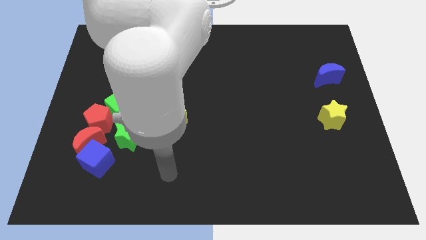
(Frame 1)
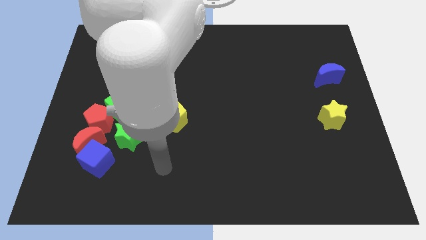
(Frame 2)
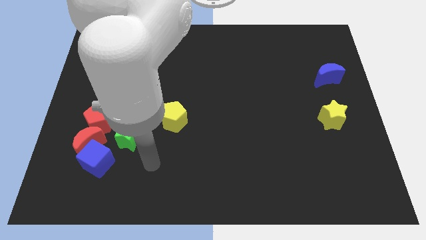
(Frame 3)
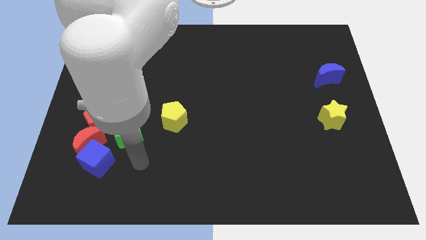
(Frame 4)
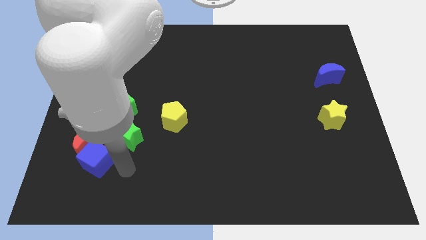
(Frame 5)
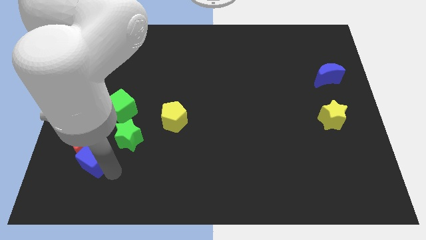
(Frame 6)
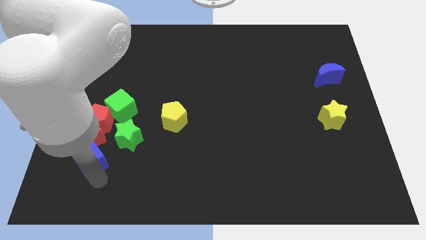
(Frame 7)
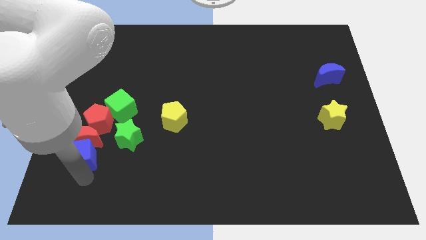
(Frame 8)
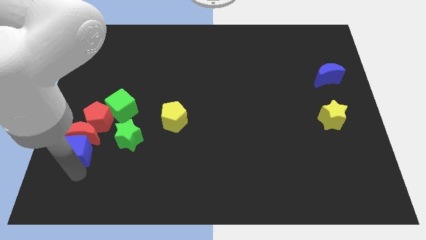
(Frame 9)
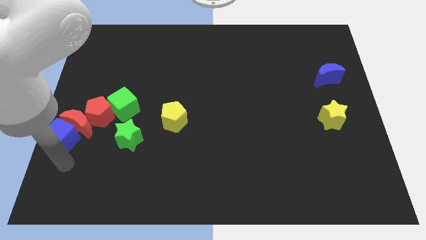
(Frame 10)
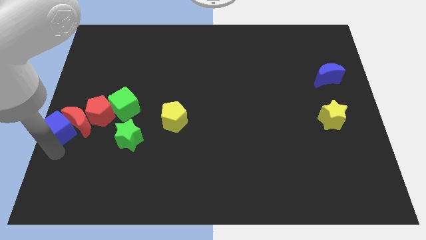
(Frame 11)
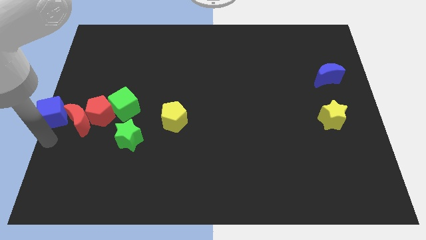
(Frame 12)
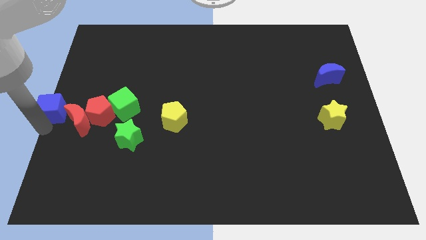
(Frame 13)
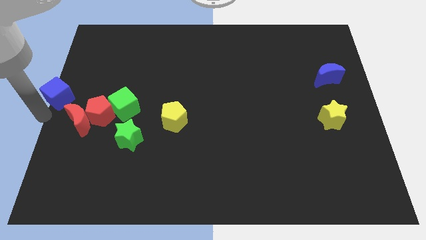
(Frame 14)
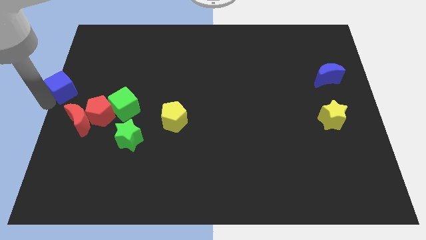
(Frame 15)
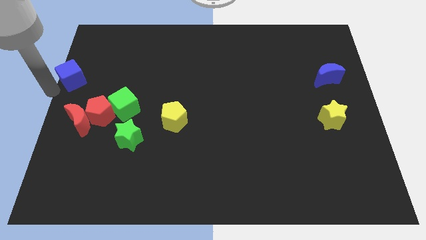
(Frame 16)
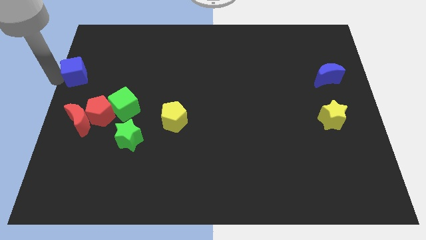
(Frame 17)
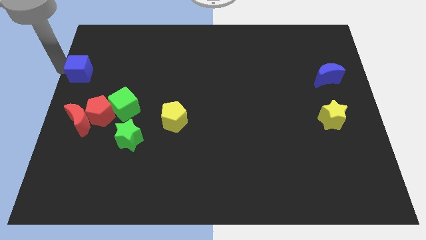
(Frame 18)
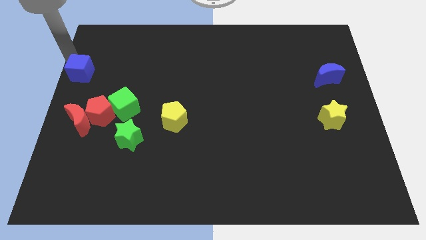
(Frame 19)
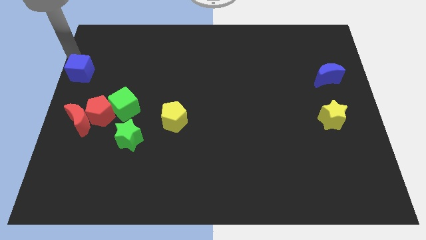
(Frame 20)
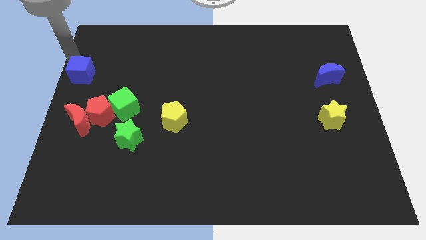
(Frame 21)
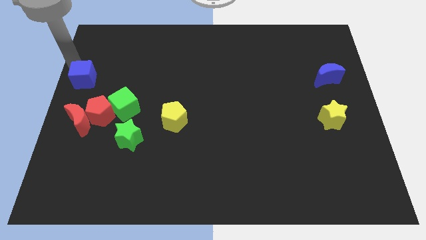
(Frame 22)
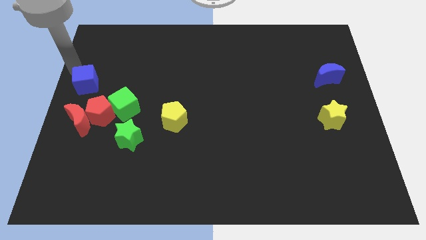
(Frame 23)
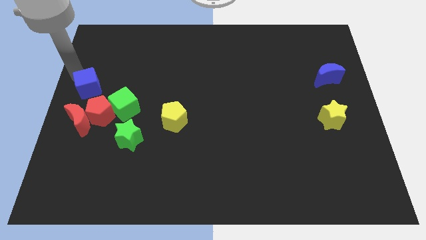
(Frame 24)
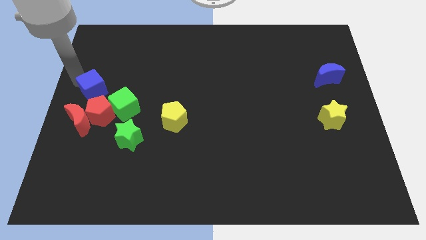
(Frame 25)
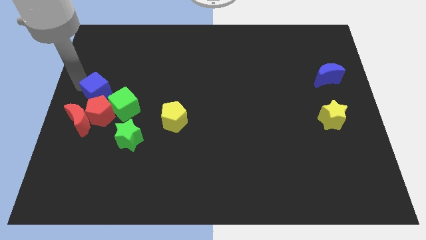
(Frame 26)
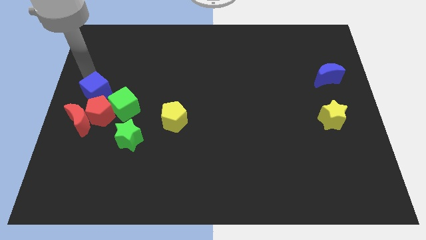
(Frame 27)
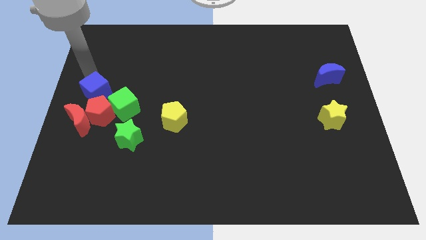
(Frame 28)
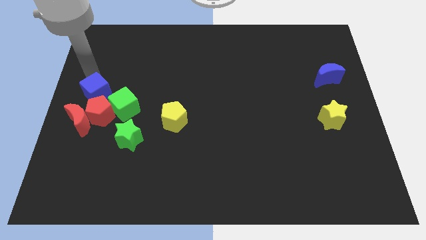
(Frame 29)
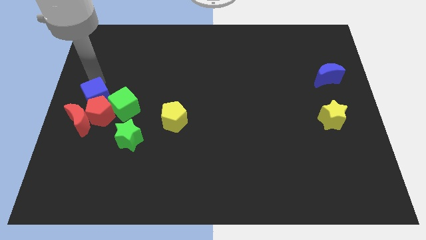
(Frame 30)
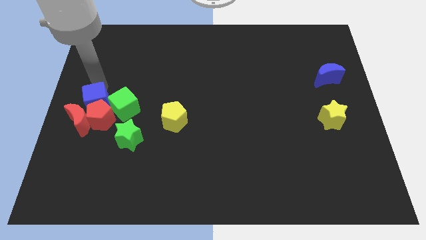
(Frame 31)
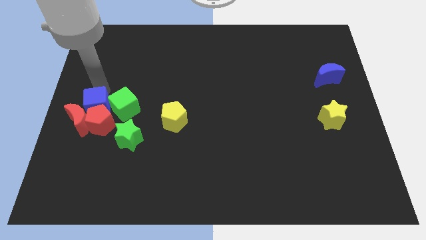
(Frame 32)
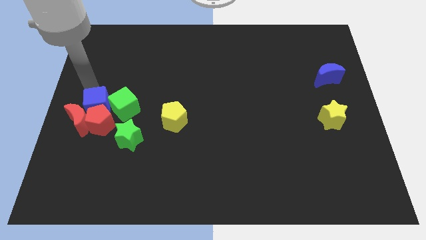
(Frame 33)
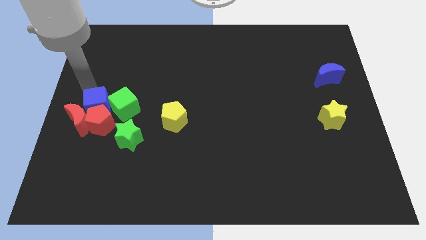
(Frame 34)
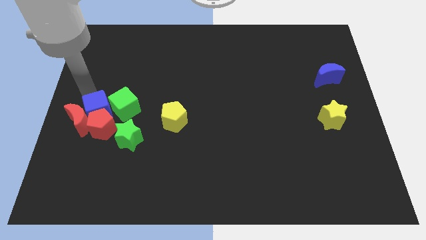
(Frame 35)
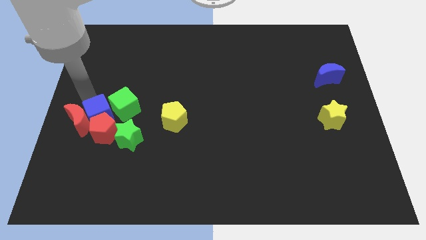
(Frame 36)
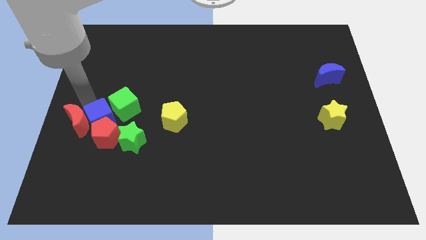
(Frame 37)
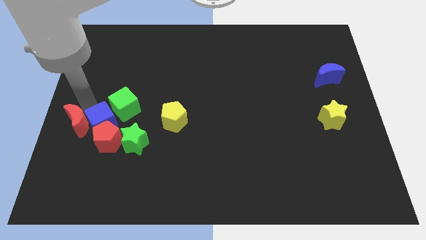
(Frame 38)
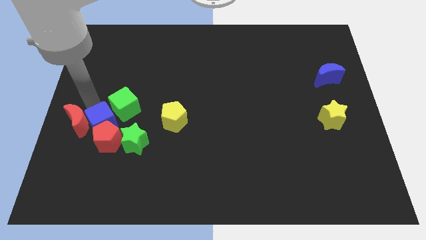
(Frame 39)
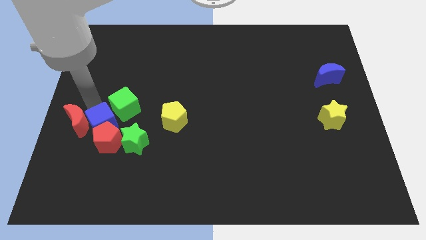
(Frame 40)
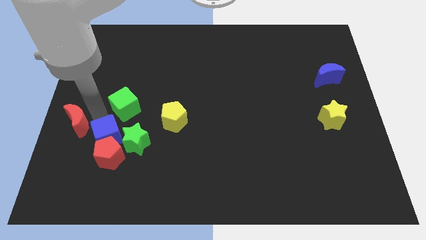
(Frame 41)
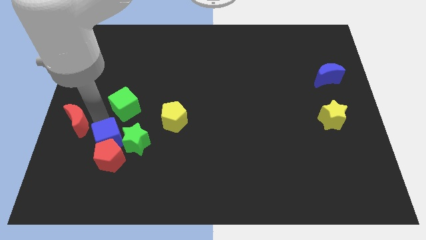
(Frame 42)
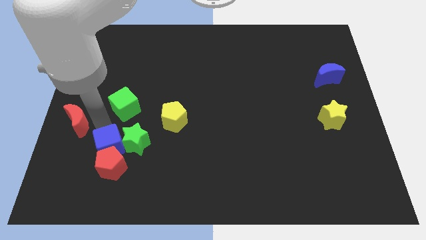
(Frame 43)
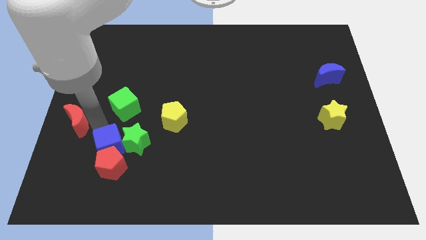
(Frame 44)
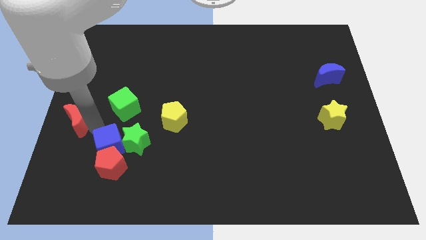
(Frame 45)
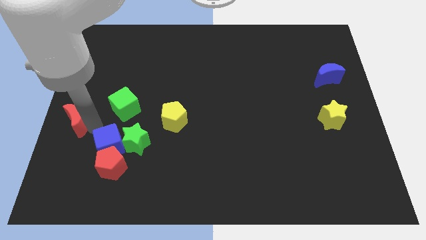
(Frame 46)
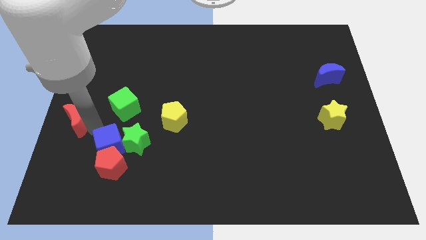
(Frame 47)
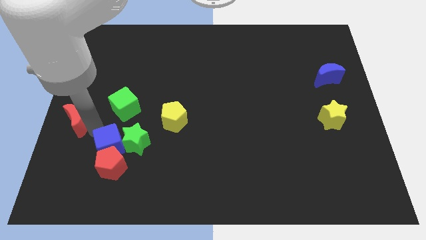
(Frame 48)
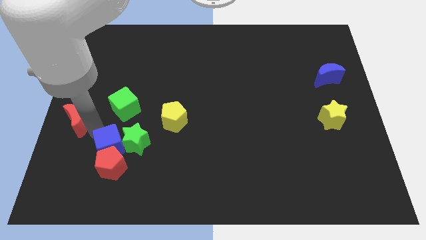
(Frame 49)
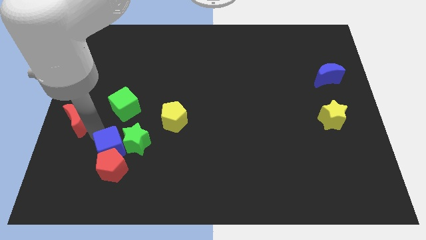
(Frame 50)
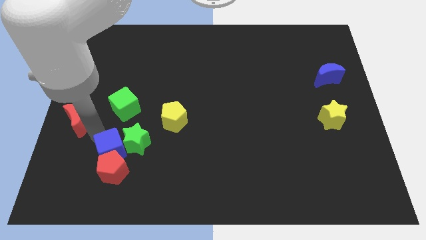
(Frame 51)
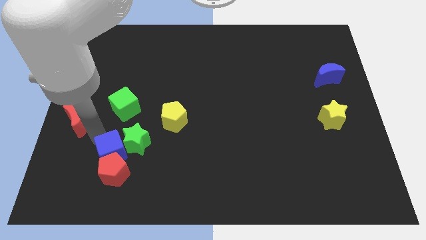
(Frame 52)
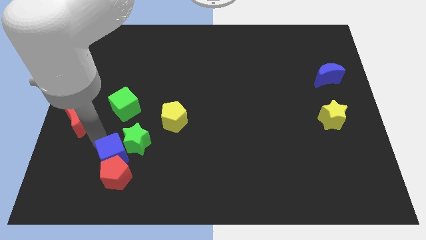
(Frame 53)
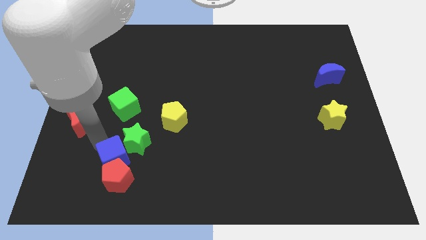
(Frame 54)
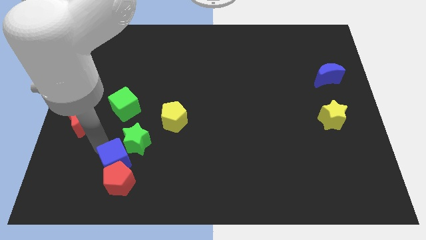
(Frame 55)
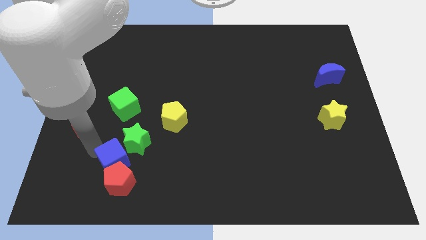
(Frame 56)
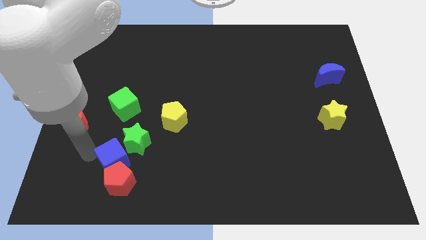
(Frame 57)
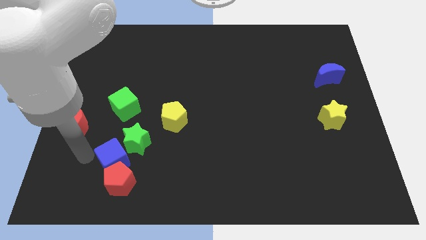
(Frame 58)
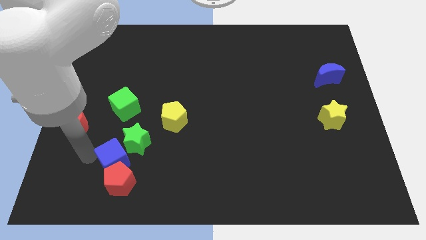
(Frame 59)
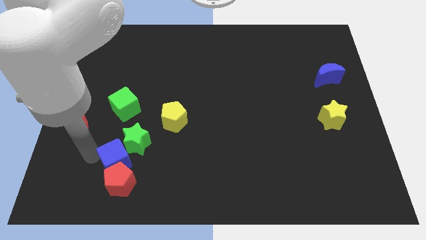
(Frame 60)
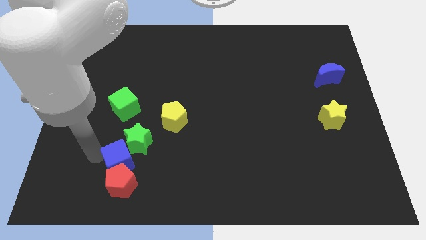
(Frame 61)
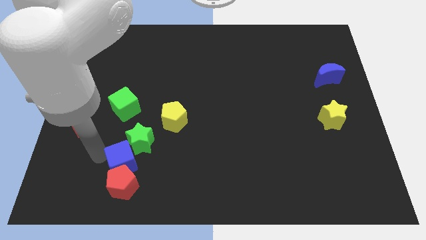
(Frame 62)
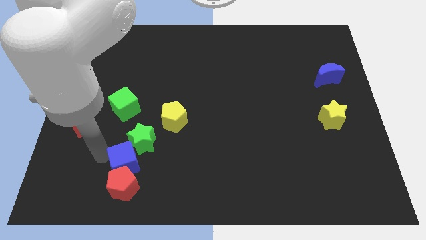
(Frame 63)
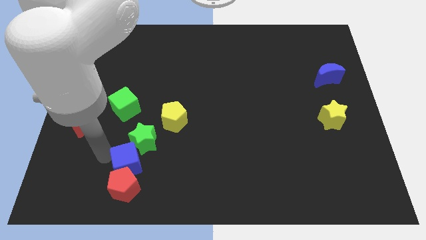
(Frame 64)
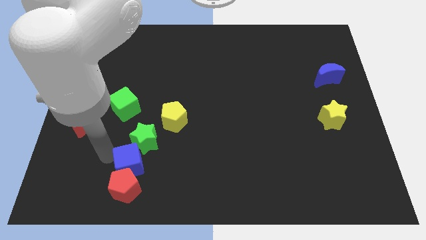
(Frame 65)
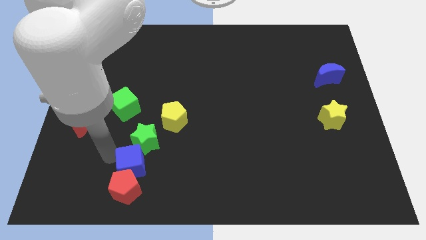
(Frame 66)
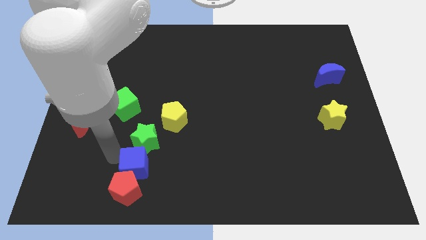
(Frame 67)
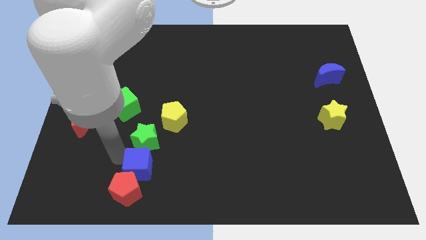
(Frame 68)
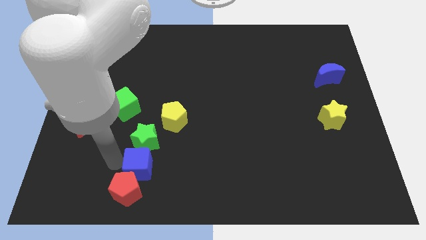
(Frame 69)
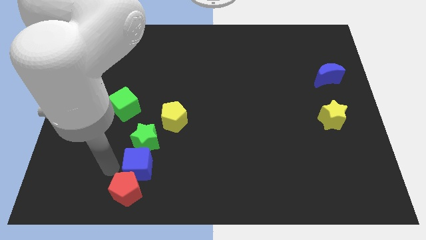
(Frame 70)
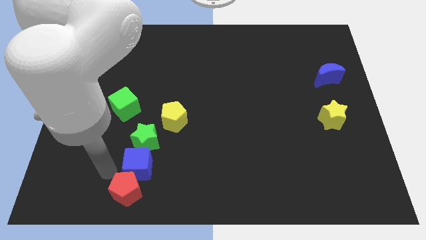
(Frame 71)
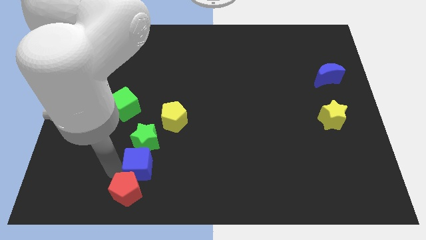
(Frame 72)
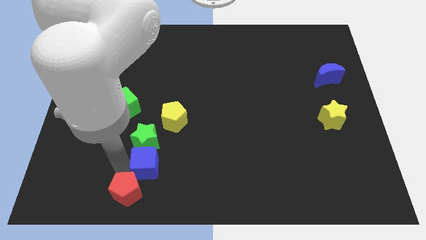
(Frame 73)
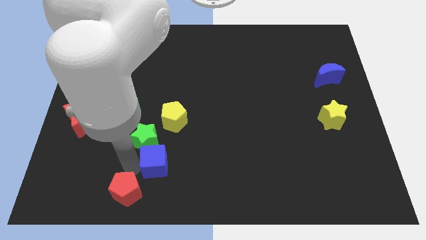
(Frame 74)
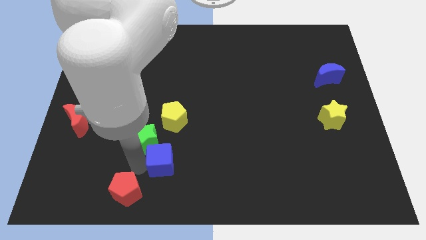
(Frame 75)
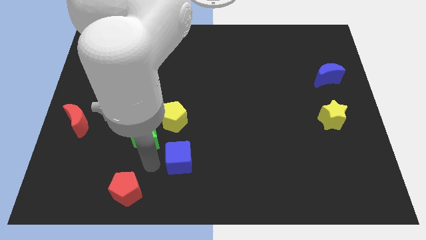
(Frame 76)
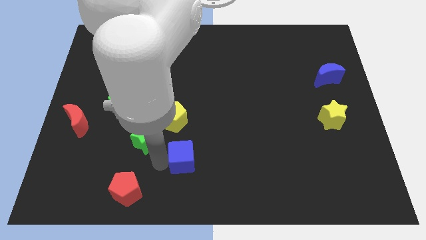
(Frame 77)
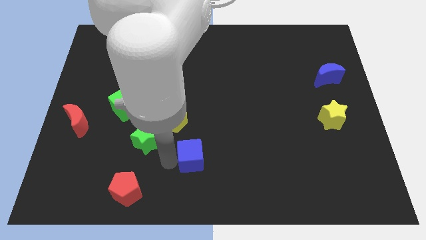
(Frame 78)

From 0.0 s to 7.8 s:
move the blue cube to the right
